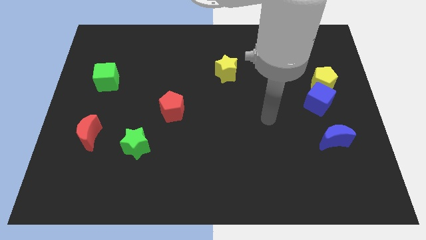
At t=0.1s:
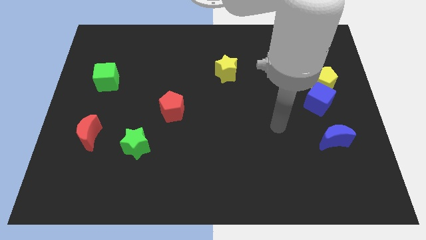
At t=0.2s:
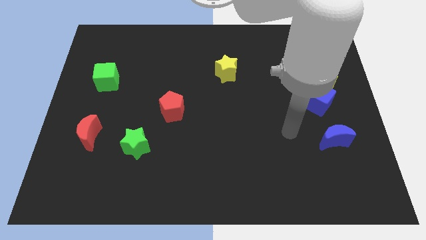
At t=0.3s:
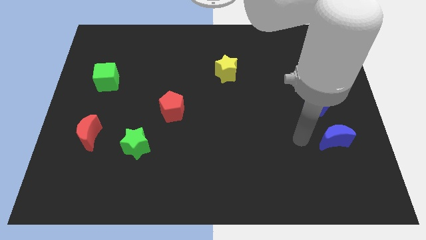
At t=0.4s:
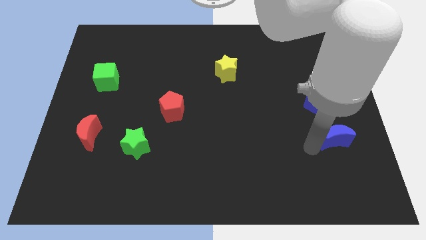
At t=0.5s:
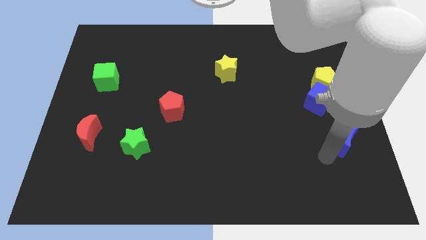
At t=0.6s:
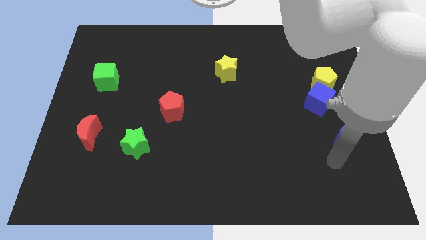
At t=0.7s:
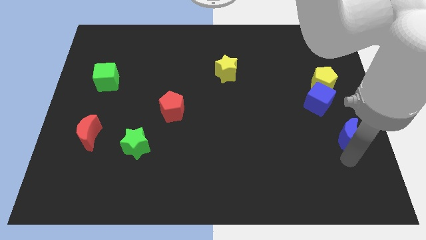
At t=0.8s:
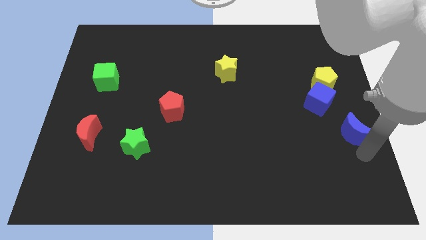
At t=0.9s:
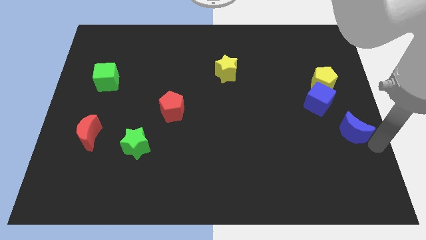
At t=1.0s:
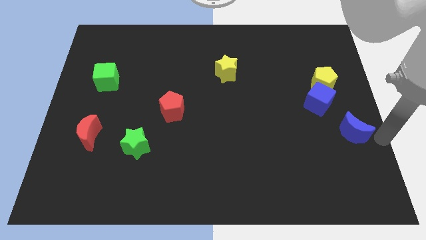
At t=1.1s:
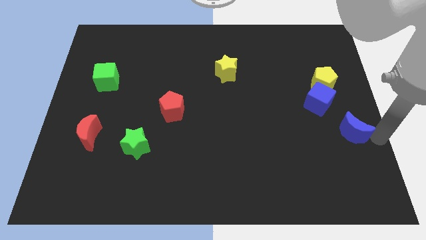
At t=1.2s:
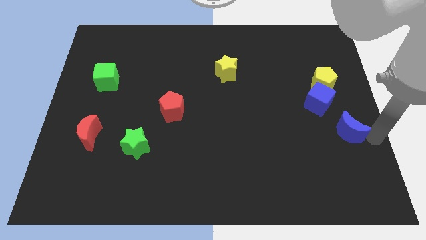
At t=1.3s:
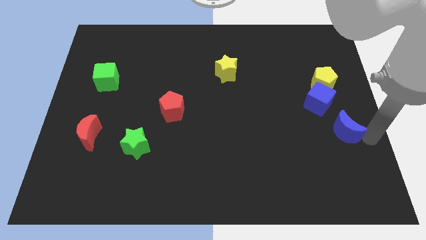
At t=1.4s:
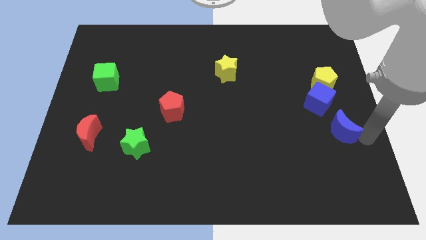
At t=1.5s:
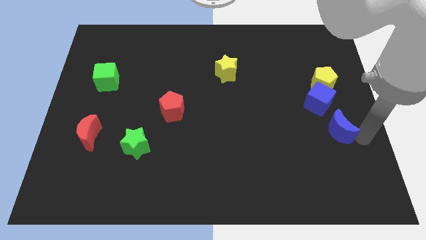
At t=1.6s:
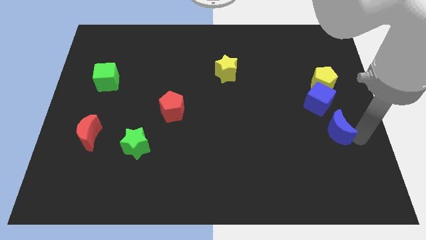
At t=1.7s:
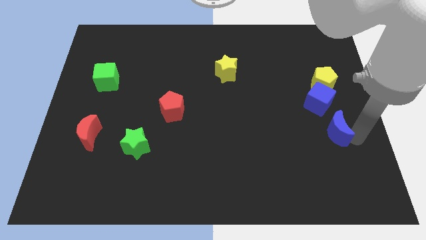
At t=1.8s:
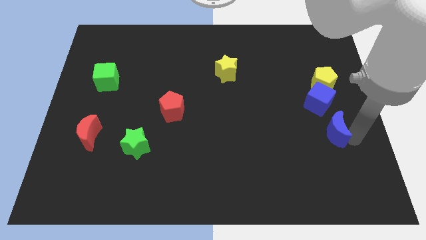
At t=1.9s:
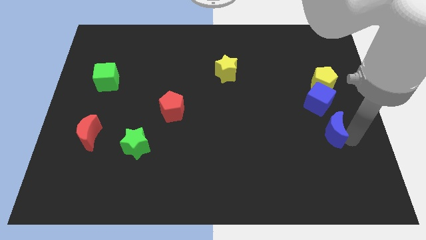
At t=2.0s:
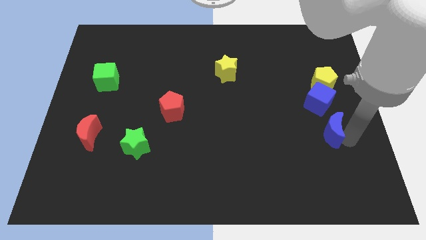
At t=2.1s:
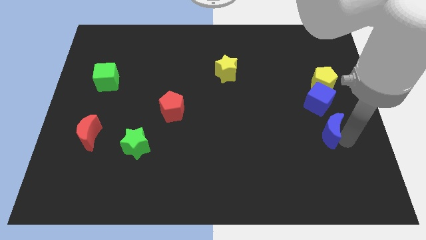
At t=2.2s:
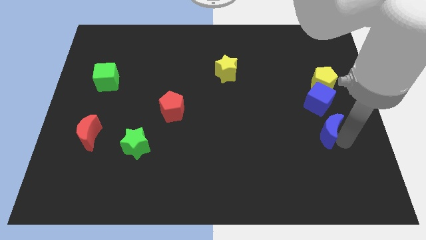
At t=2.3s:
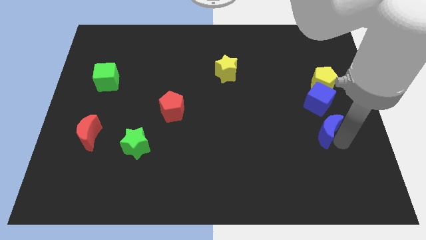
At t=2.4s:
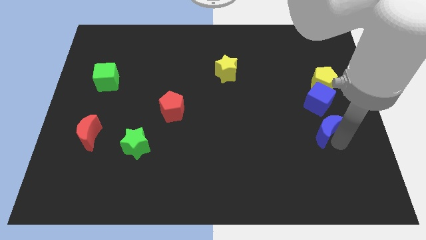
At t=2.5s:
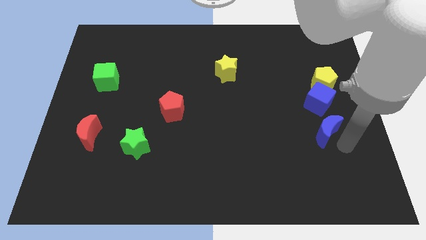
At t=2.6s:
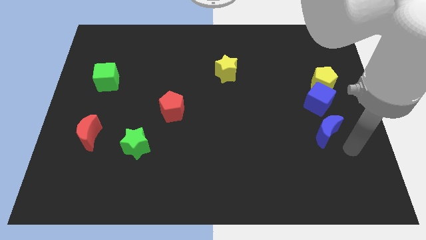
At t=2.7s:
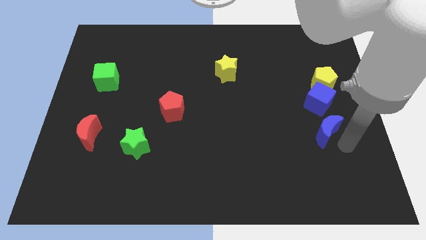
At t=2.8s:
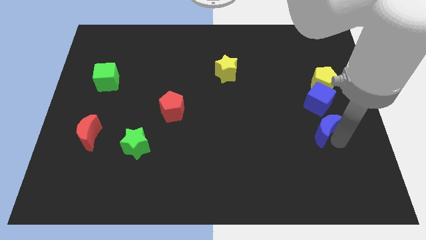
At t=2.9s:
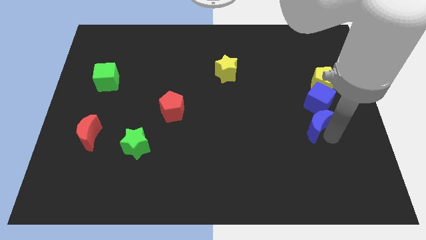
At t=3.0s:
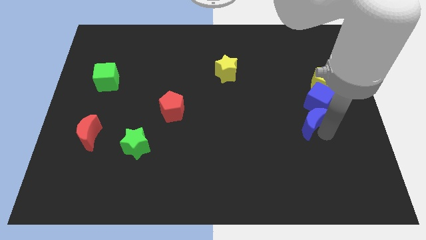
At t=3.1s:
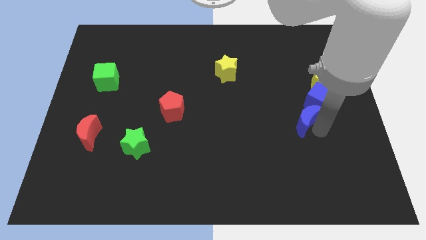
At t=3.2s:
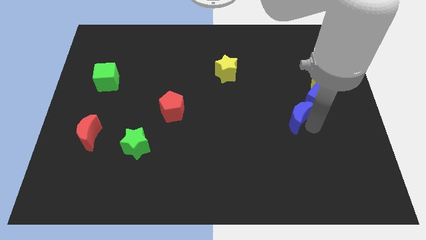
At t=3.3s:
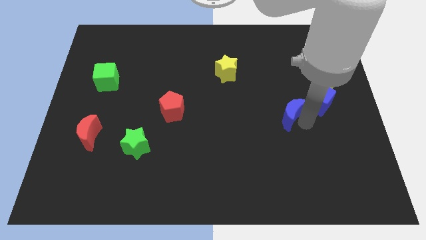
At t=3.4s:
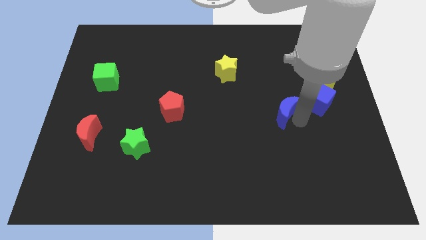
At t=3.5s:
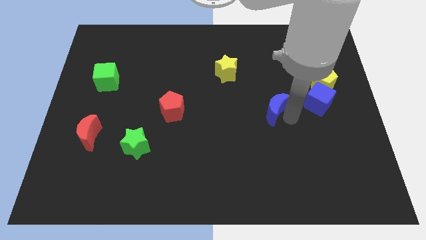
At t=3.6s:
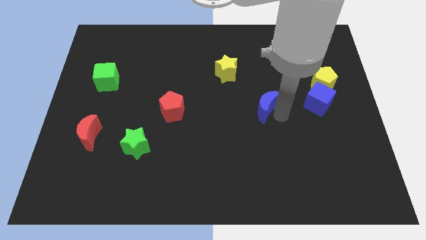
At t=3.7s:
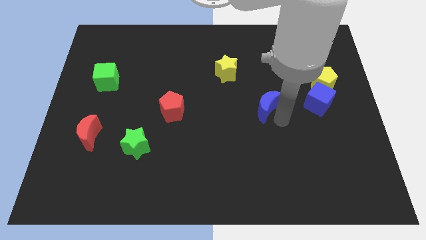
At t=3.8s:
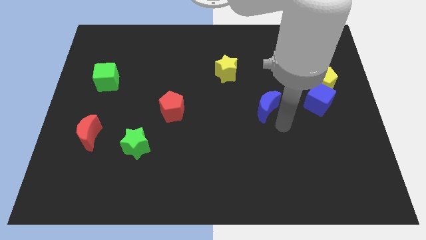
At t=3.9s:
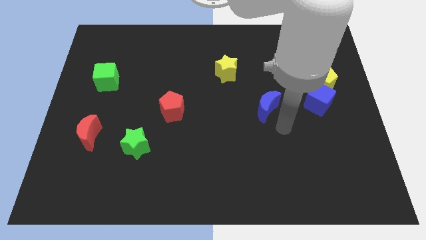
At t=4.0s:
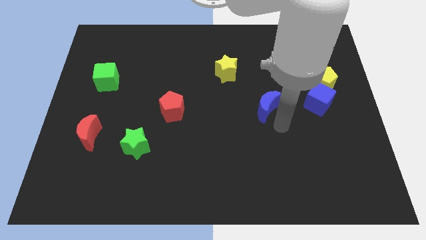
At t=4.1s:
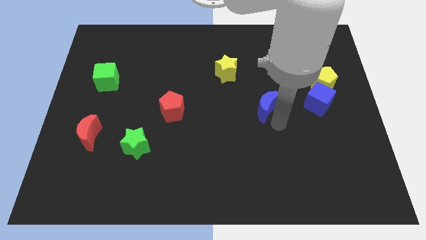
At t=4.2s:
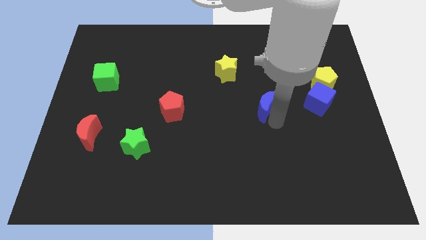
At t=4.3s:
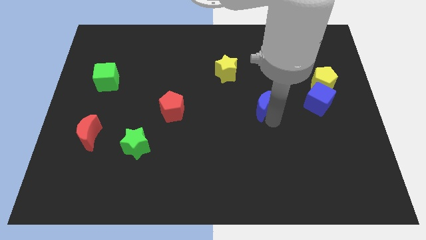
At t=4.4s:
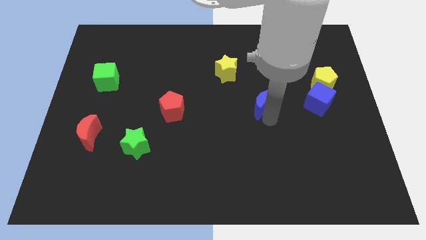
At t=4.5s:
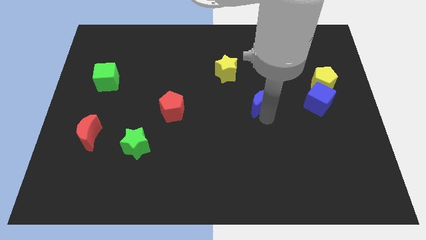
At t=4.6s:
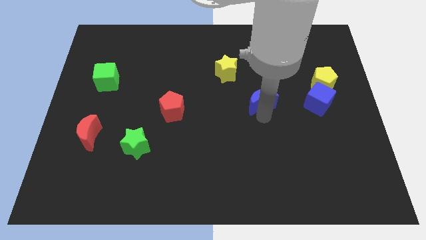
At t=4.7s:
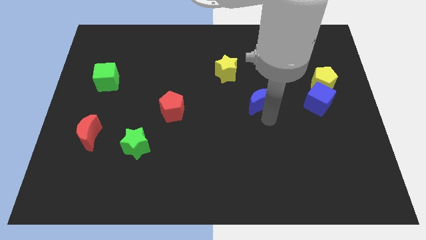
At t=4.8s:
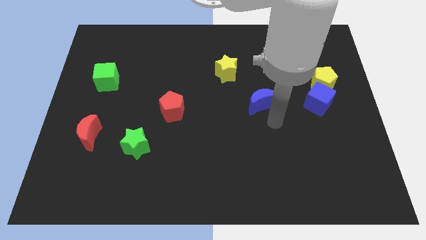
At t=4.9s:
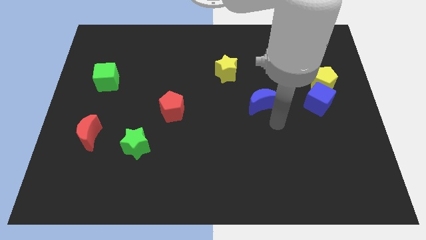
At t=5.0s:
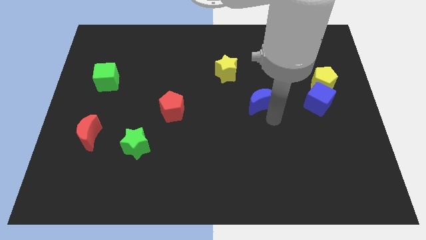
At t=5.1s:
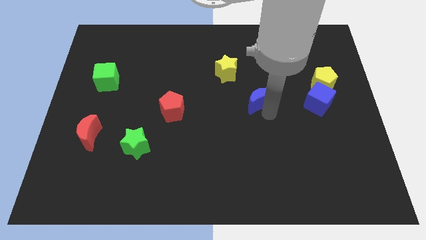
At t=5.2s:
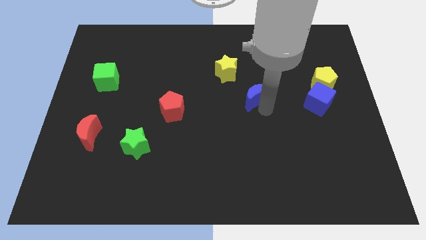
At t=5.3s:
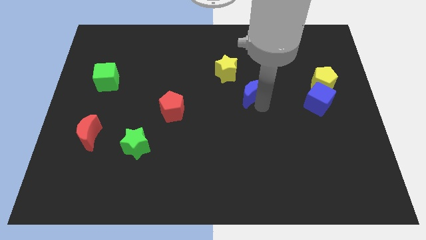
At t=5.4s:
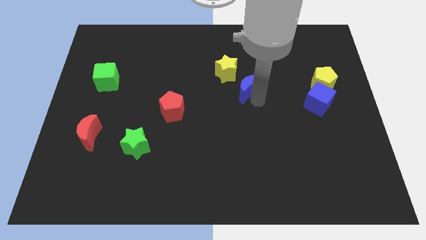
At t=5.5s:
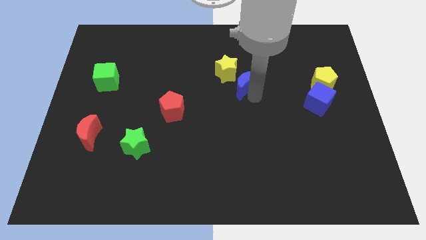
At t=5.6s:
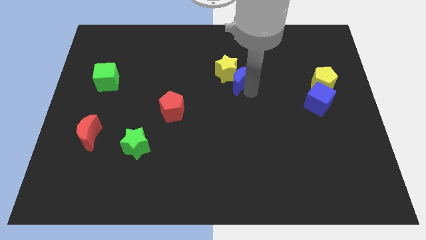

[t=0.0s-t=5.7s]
push the blue moon towards the yellow star

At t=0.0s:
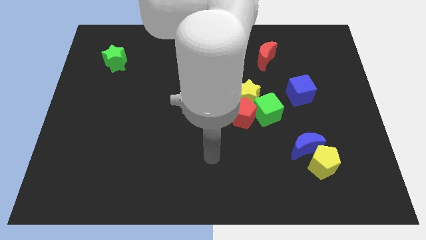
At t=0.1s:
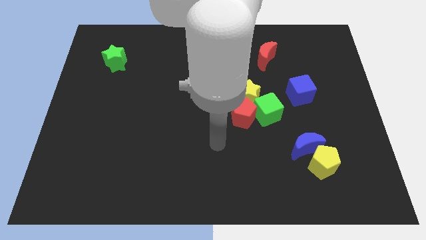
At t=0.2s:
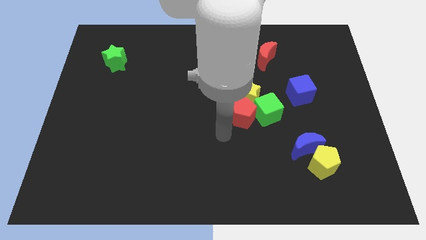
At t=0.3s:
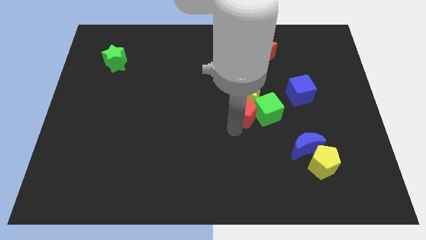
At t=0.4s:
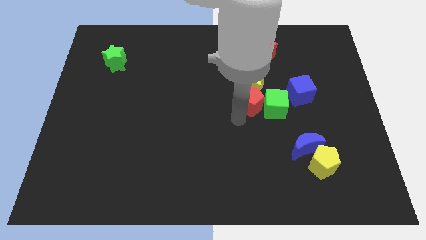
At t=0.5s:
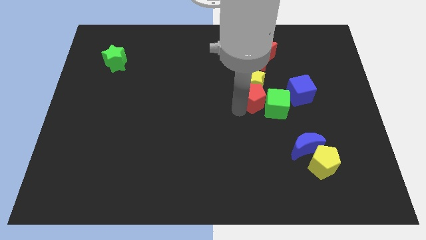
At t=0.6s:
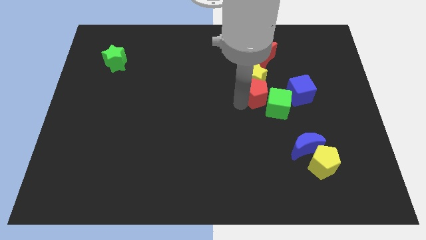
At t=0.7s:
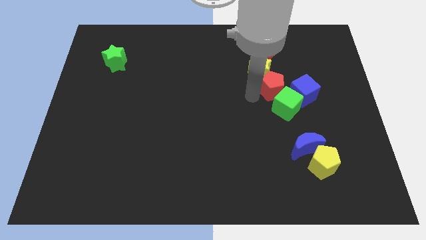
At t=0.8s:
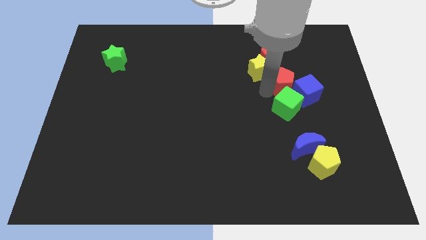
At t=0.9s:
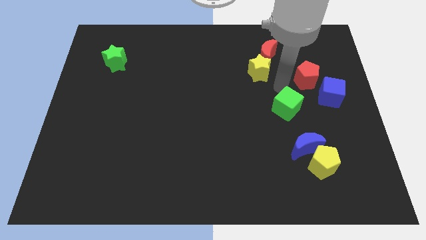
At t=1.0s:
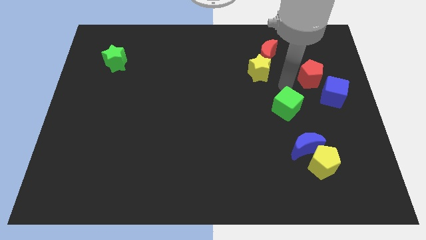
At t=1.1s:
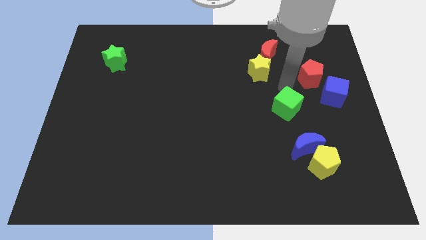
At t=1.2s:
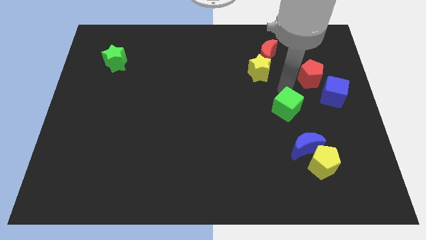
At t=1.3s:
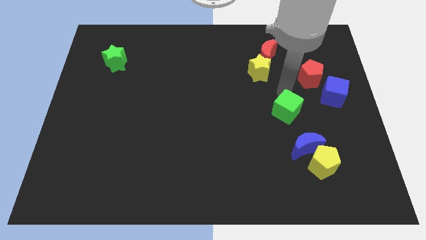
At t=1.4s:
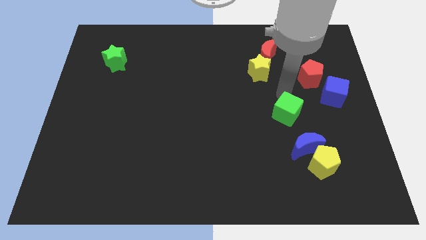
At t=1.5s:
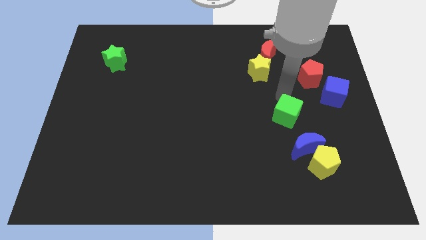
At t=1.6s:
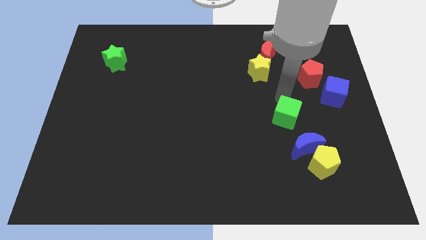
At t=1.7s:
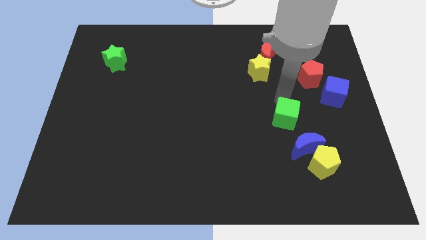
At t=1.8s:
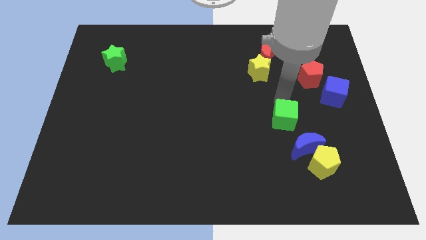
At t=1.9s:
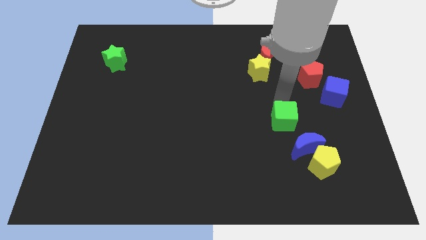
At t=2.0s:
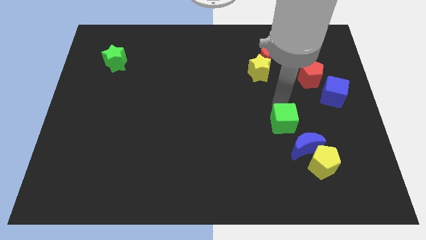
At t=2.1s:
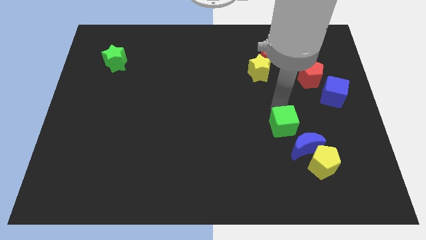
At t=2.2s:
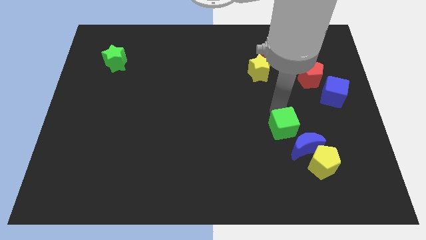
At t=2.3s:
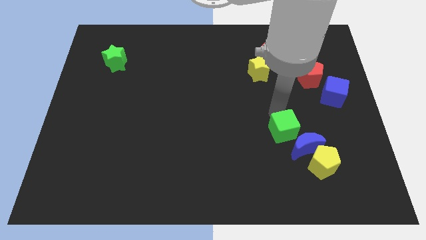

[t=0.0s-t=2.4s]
slide the green cube towards the blue moon
